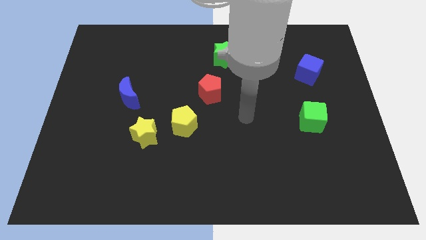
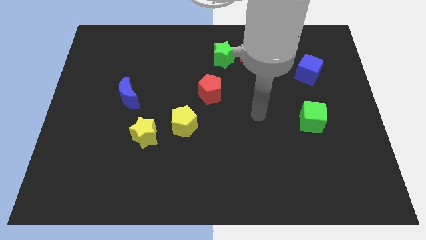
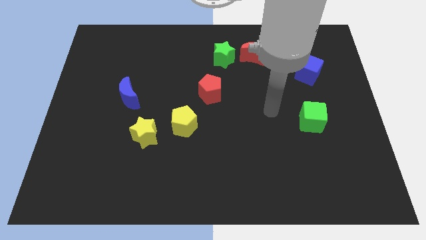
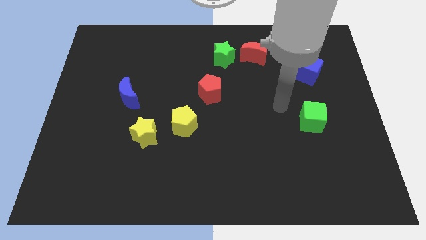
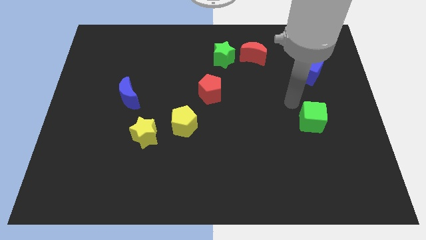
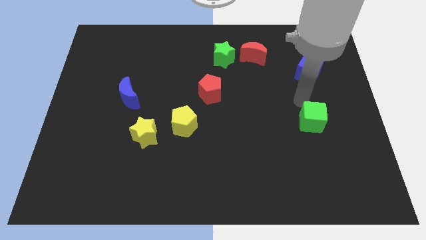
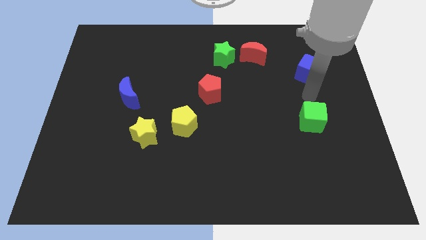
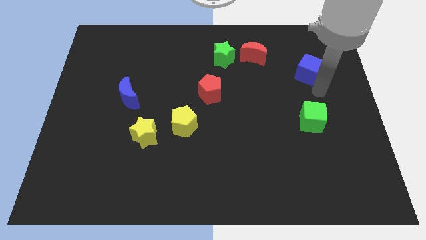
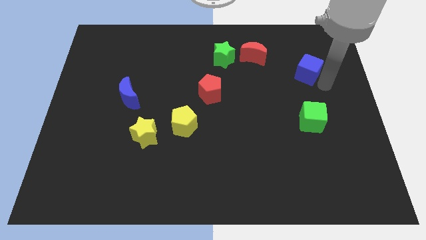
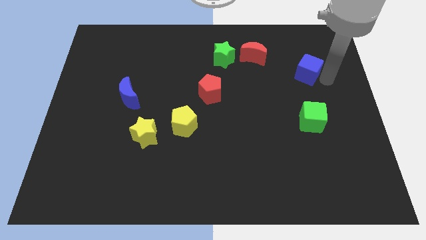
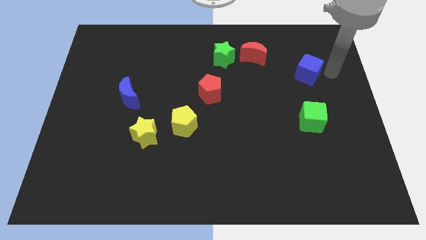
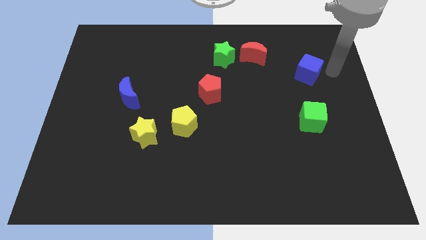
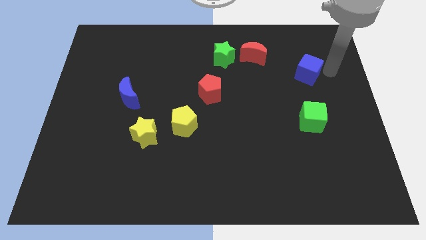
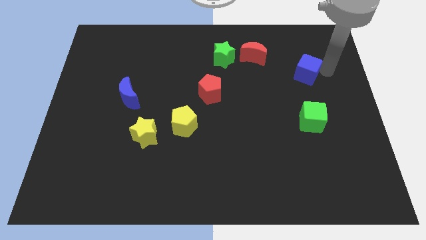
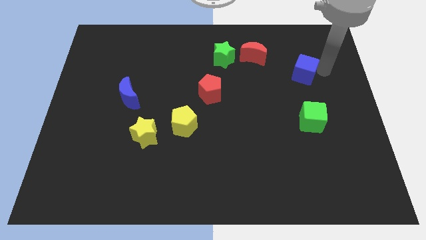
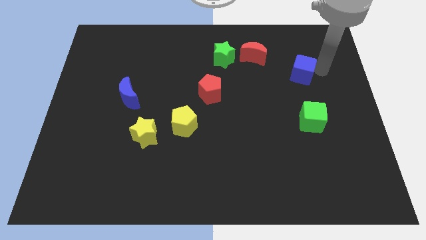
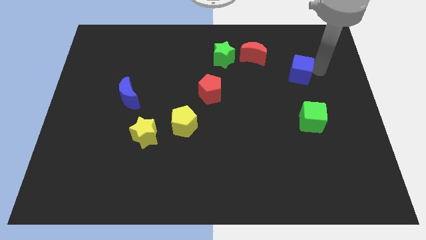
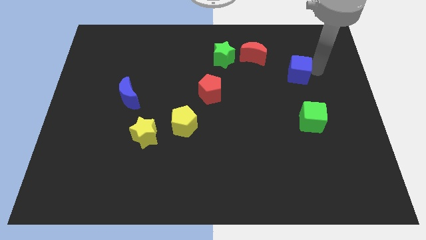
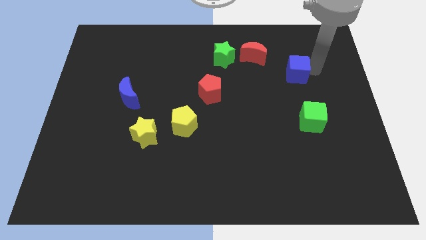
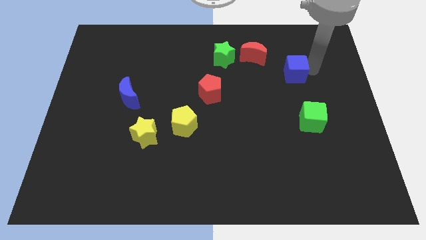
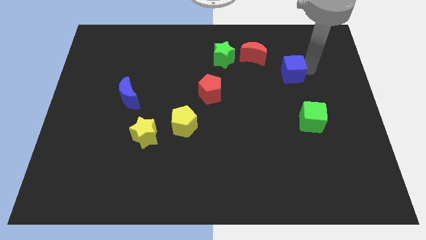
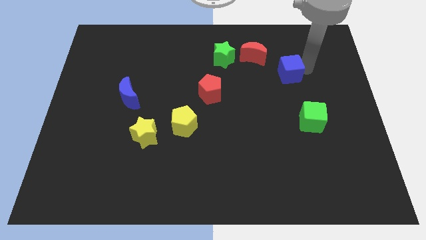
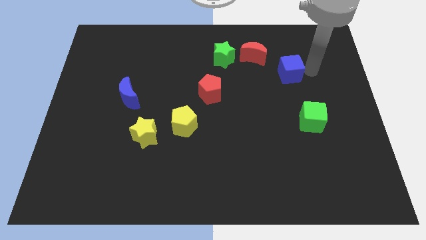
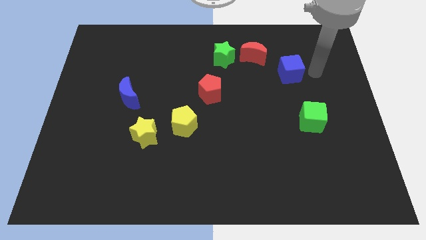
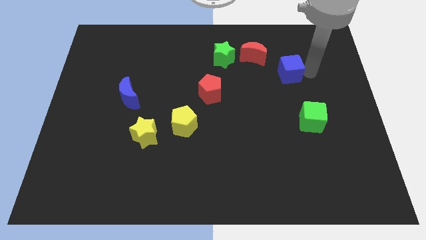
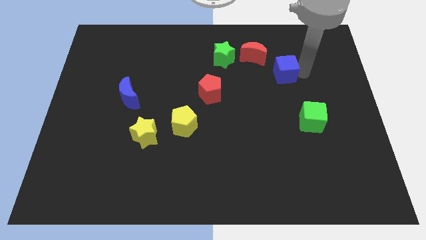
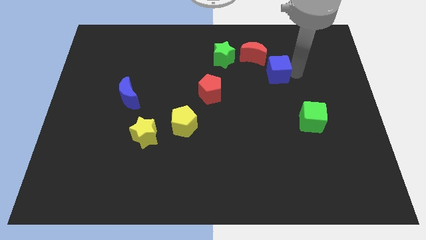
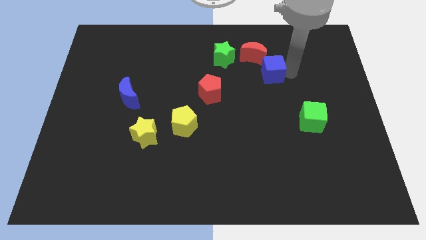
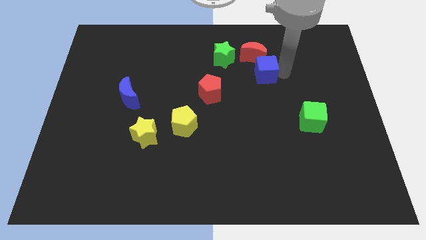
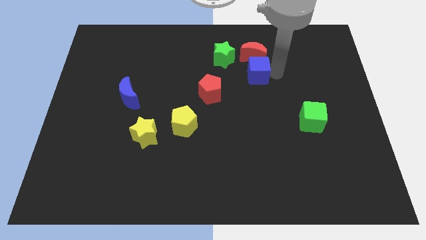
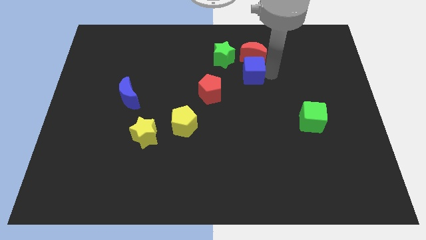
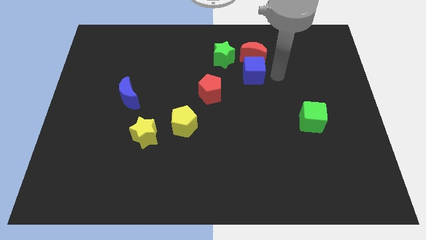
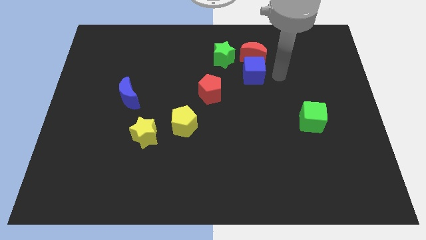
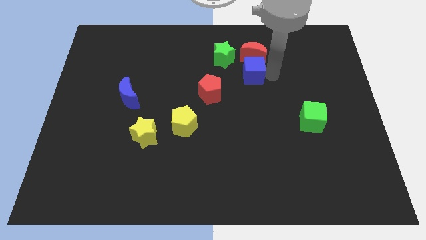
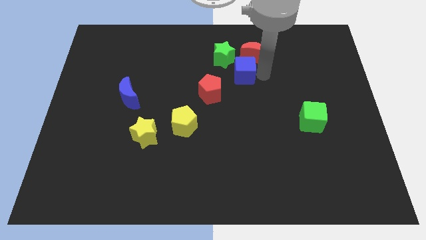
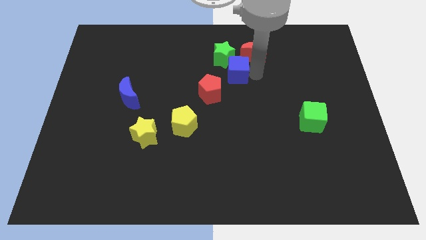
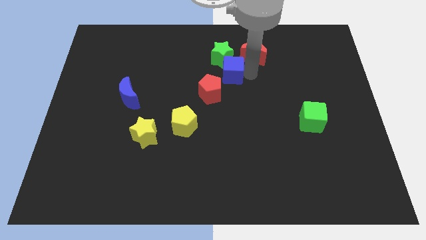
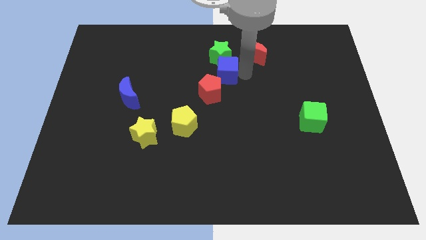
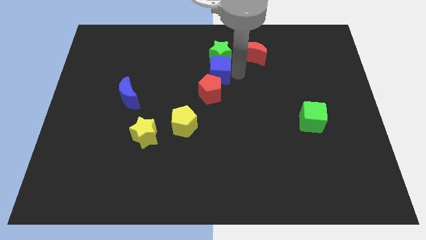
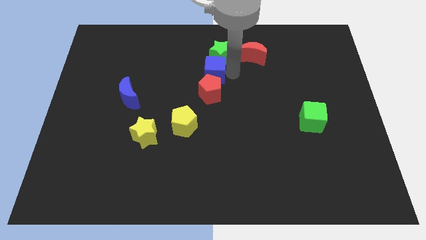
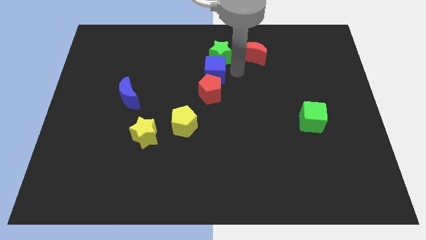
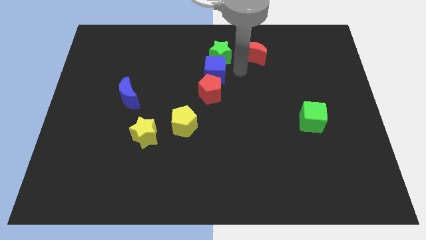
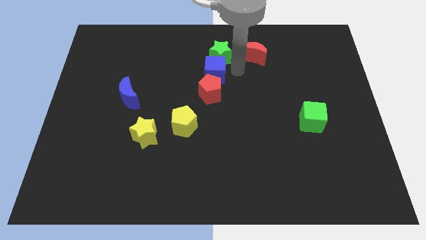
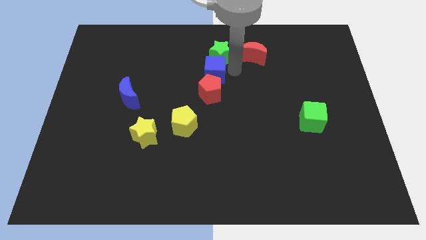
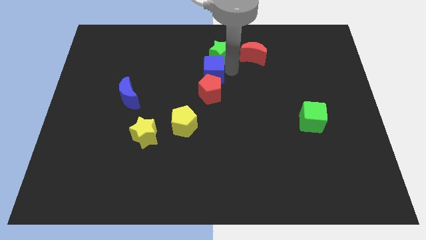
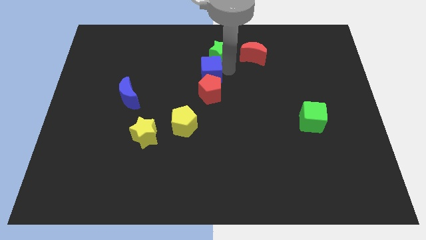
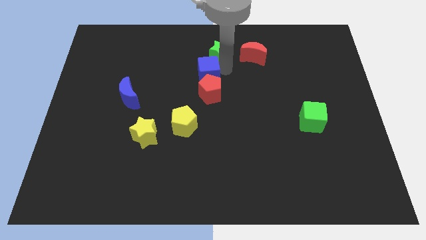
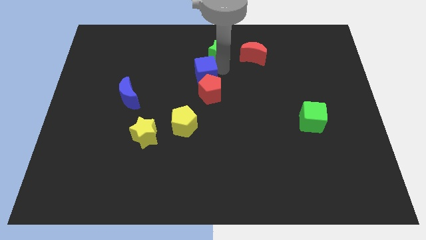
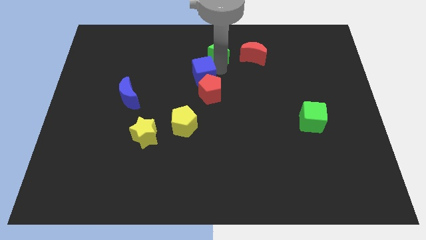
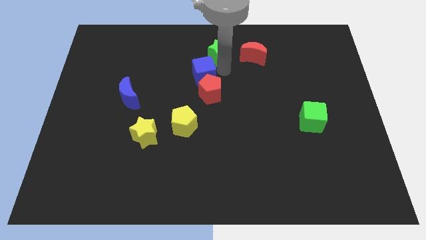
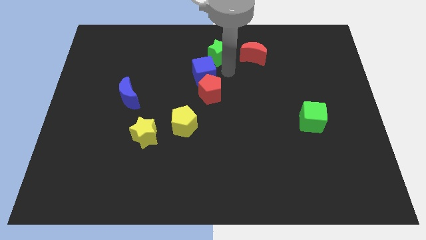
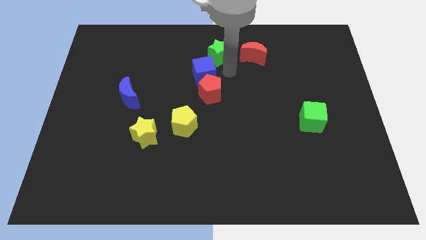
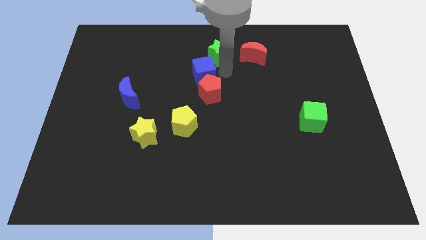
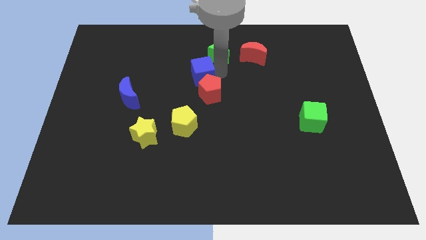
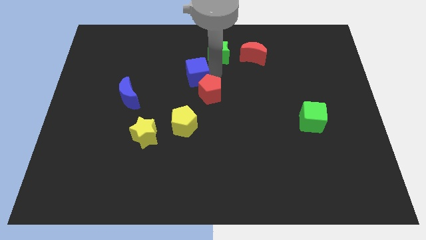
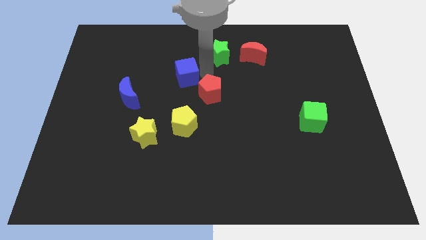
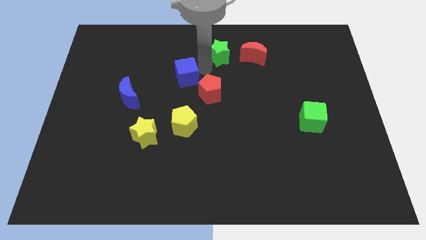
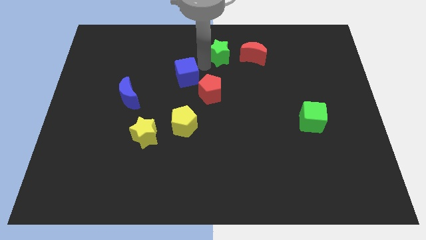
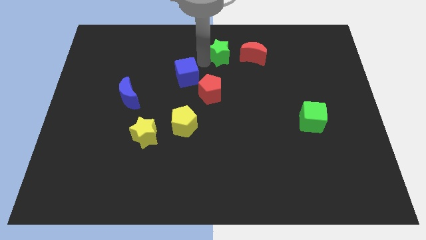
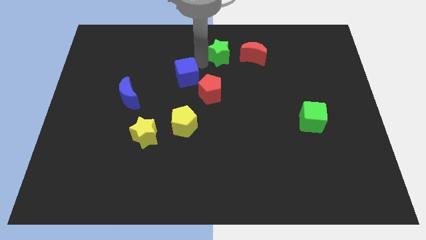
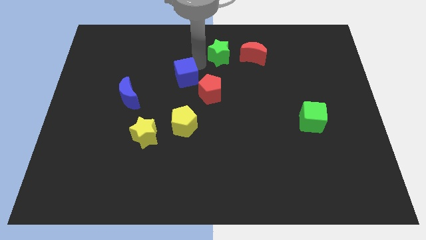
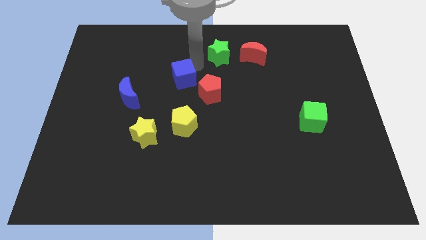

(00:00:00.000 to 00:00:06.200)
move the blue cube left of the red pentagon

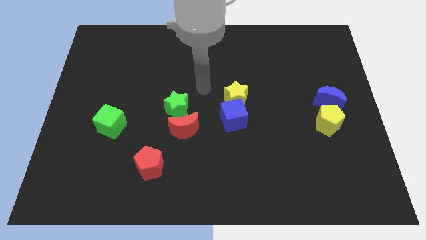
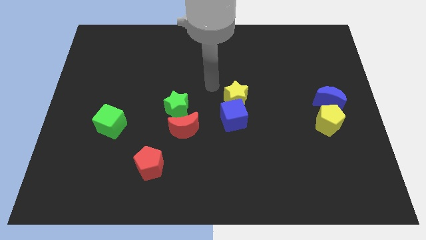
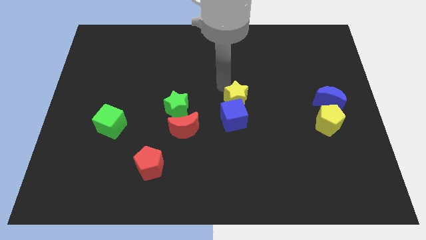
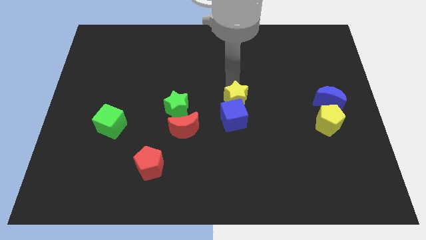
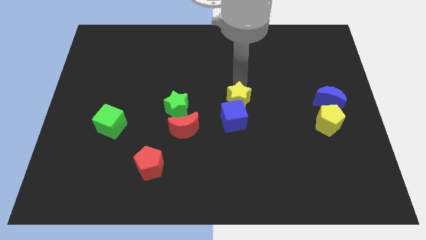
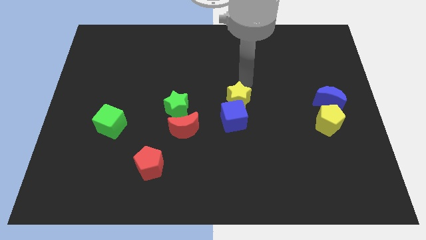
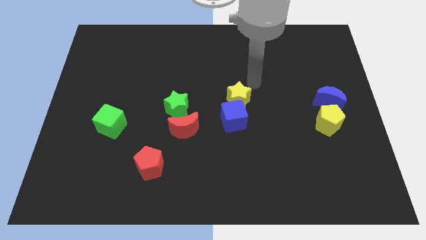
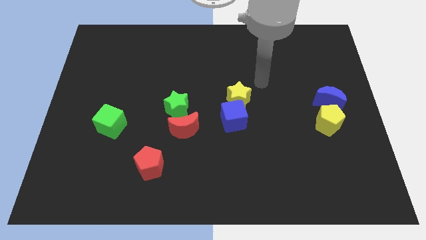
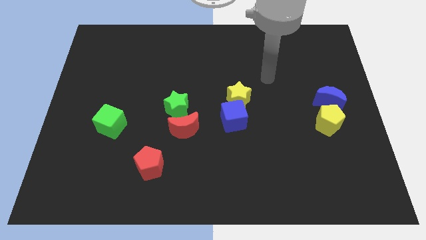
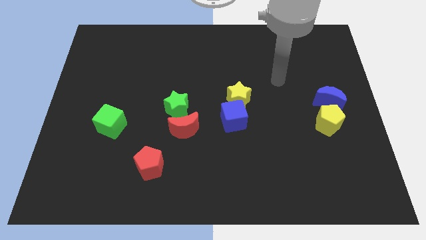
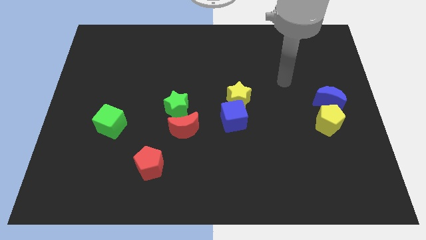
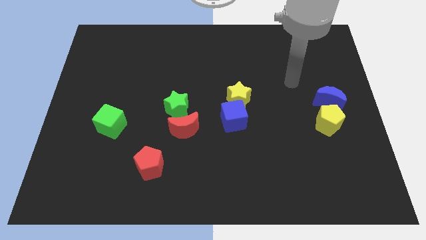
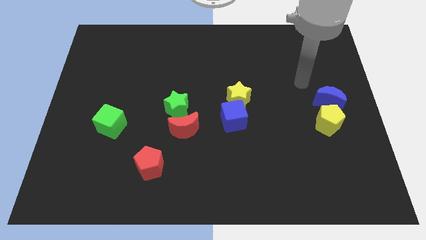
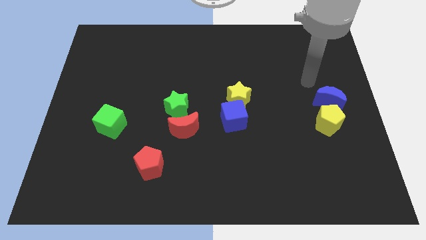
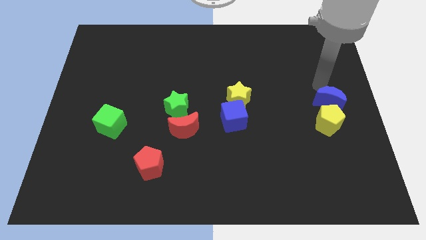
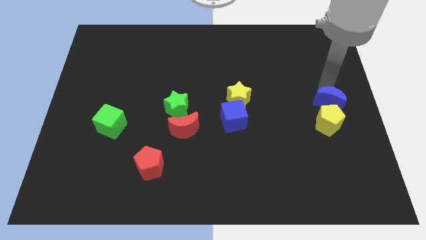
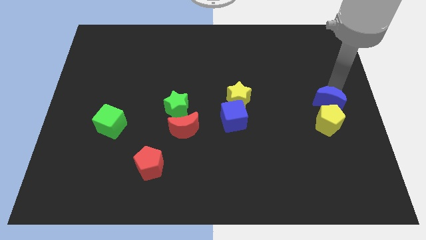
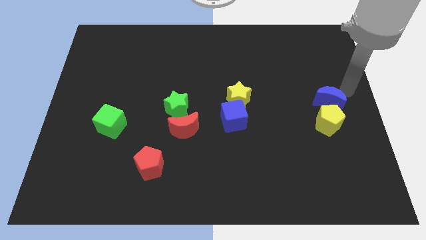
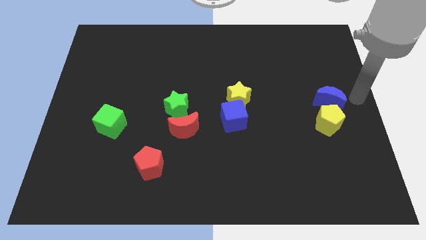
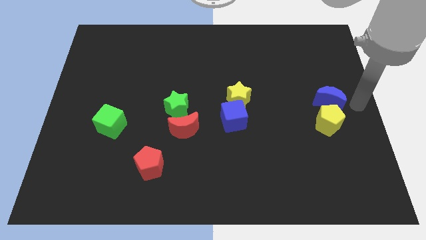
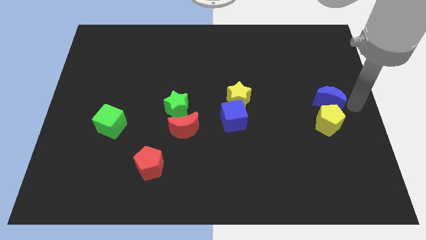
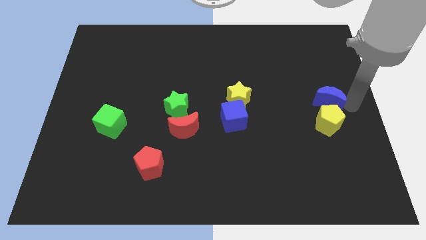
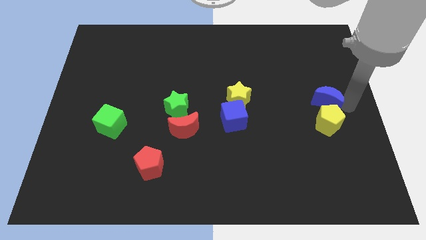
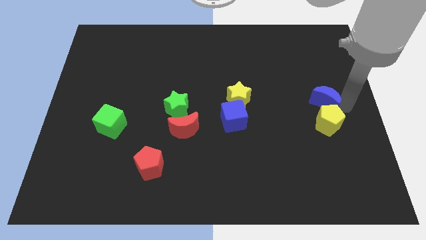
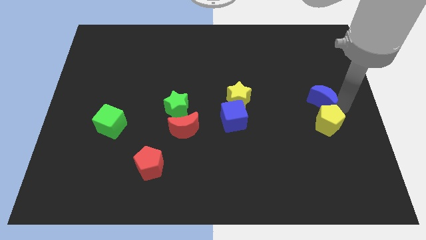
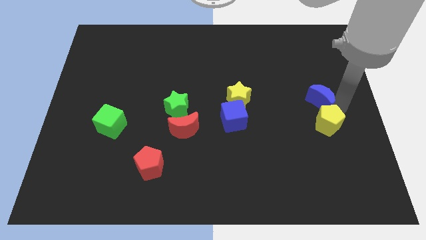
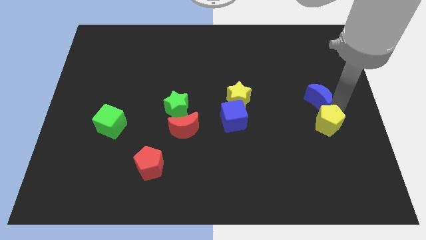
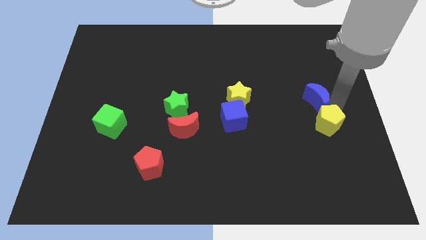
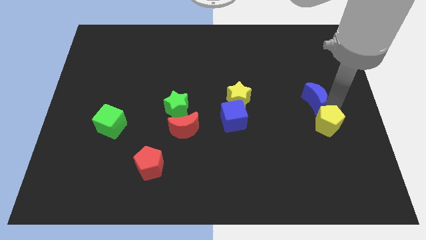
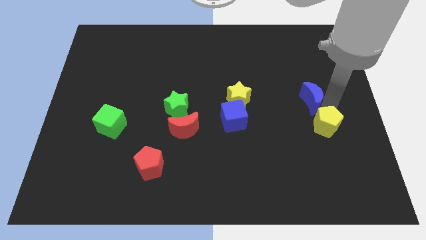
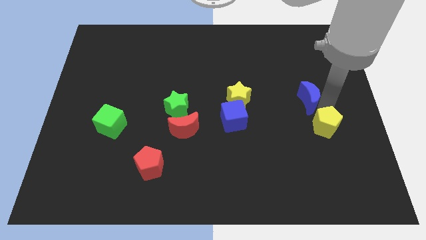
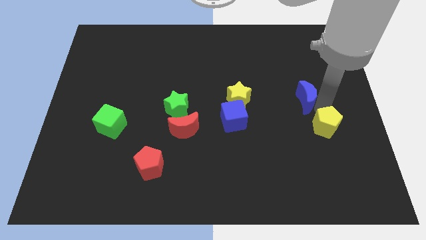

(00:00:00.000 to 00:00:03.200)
put the blue moon to the right side of the yellow star
